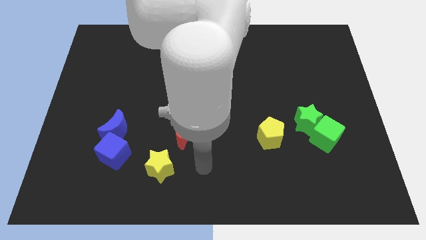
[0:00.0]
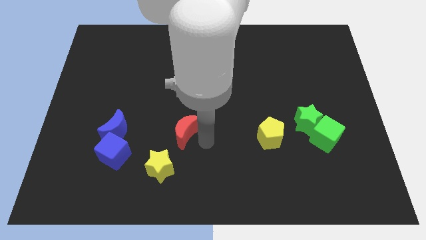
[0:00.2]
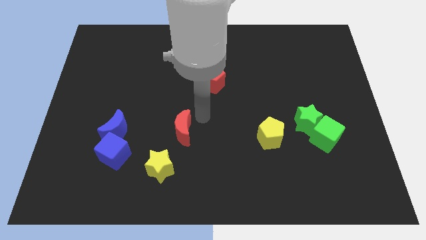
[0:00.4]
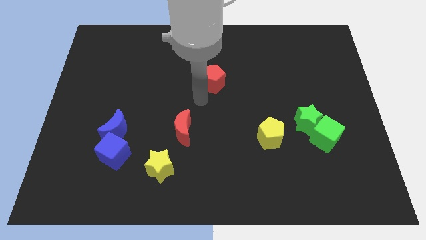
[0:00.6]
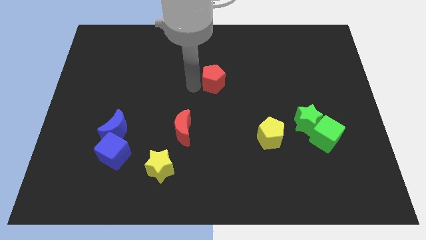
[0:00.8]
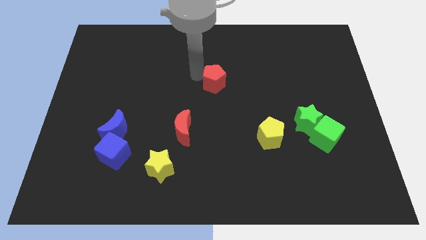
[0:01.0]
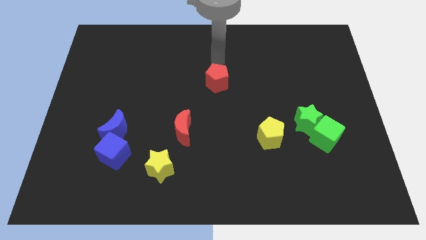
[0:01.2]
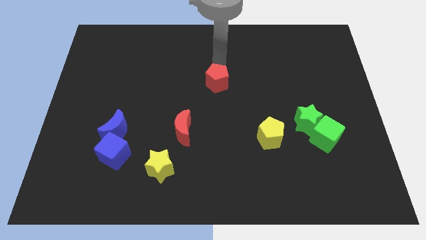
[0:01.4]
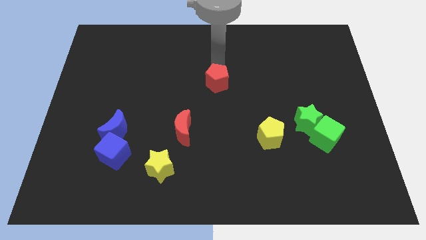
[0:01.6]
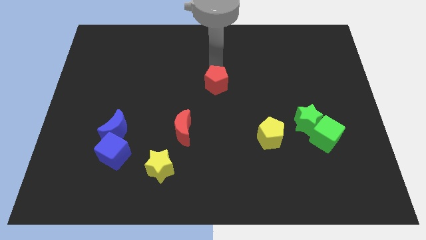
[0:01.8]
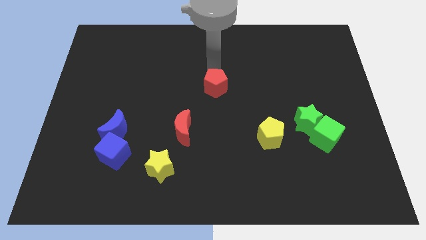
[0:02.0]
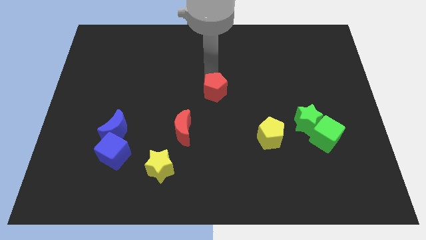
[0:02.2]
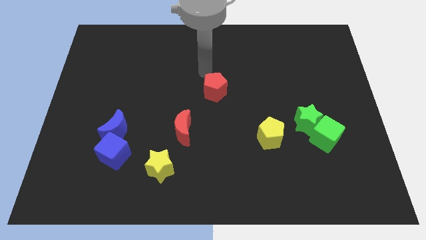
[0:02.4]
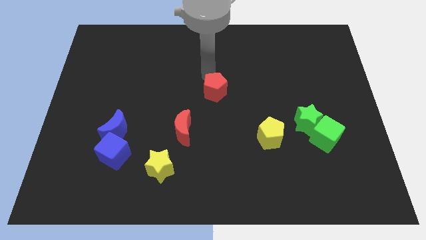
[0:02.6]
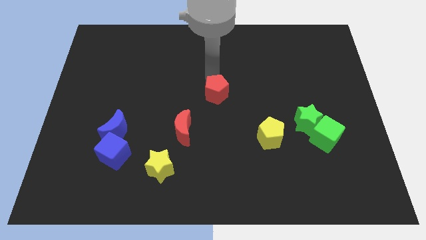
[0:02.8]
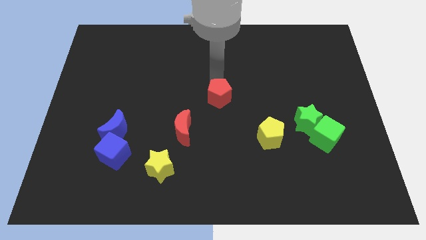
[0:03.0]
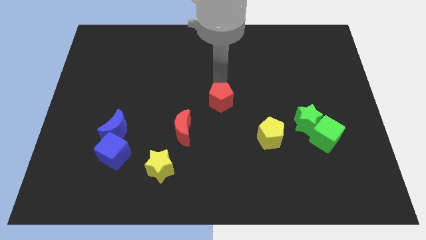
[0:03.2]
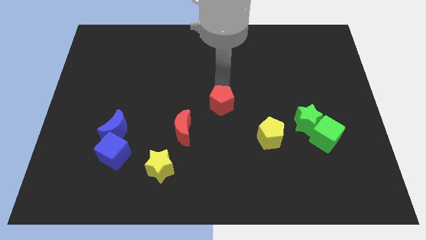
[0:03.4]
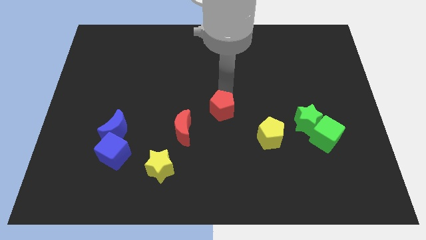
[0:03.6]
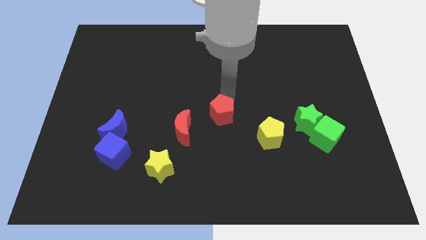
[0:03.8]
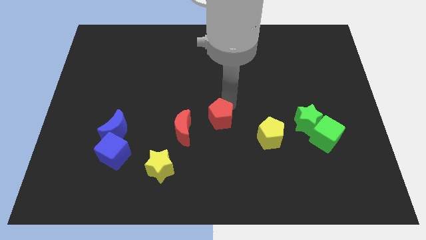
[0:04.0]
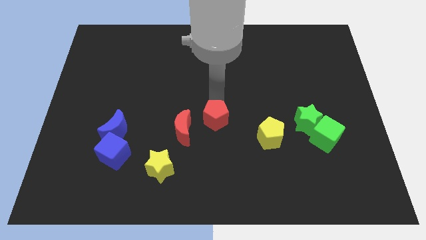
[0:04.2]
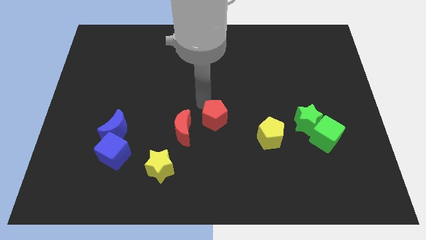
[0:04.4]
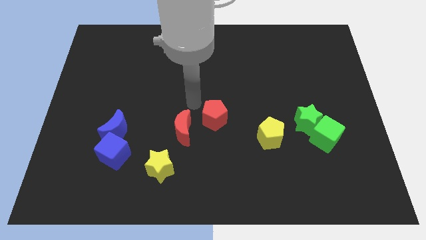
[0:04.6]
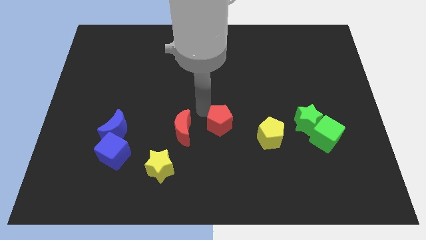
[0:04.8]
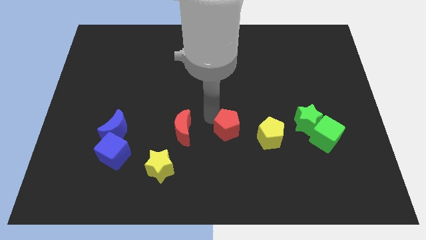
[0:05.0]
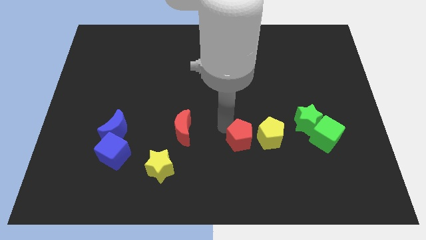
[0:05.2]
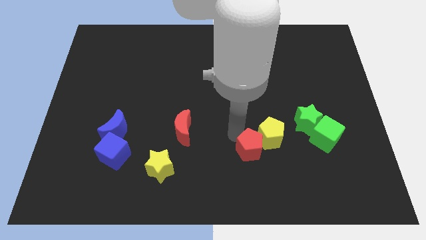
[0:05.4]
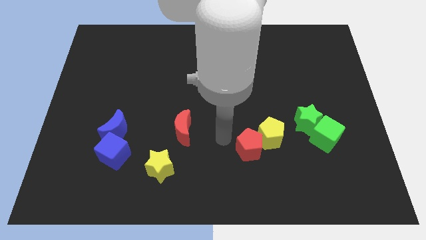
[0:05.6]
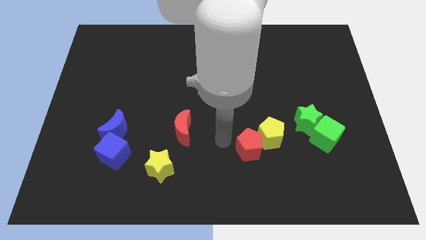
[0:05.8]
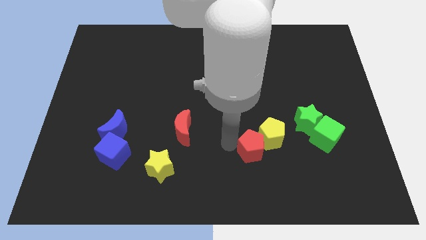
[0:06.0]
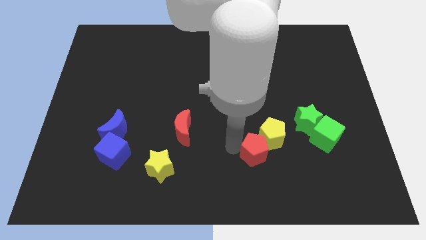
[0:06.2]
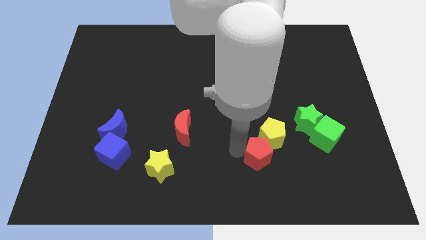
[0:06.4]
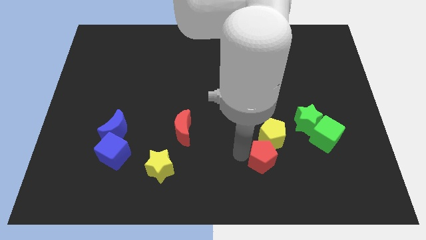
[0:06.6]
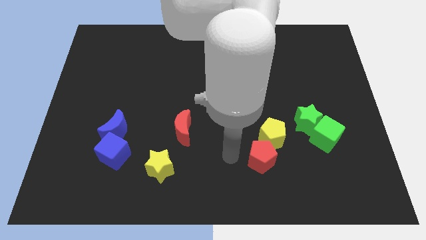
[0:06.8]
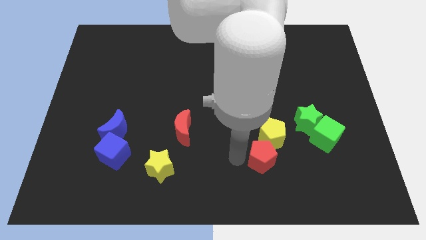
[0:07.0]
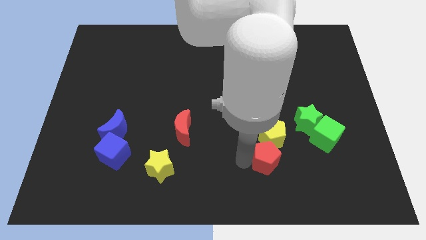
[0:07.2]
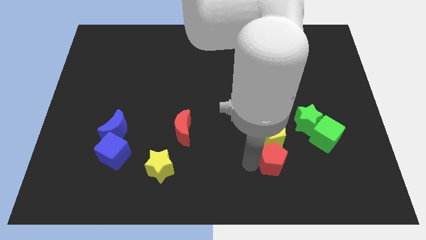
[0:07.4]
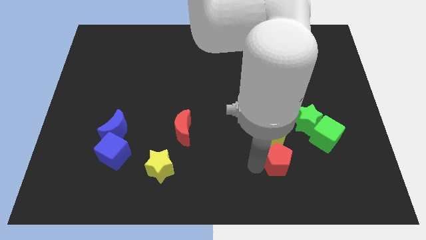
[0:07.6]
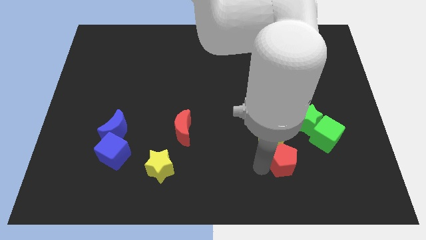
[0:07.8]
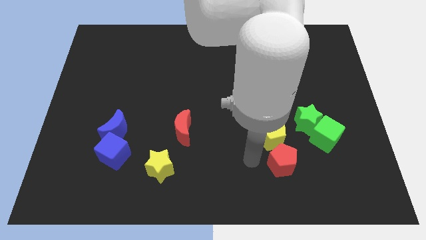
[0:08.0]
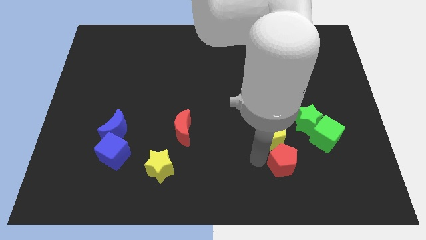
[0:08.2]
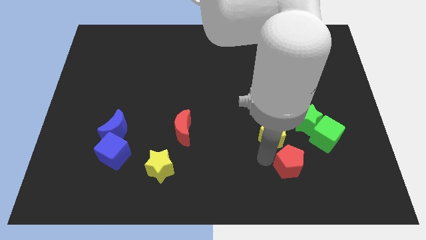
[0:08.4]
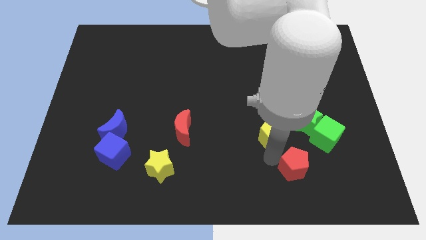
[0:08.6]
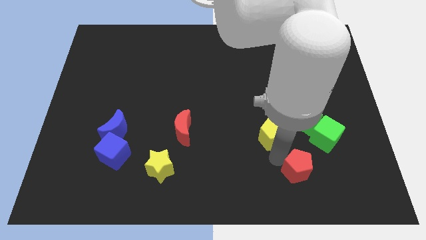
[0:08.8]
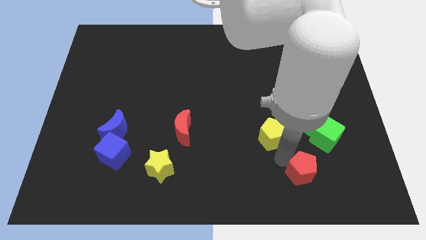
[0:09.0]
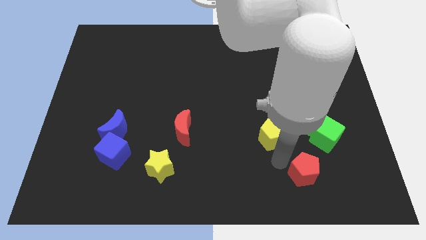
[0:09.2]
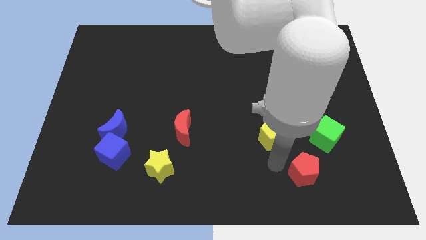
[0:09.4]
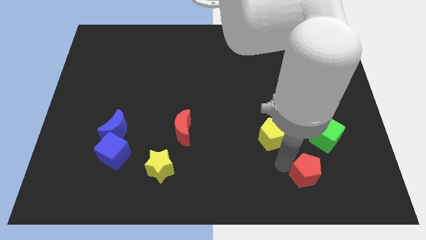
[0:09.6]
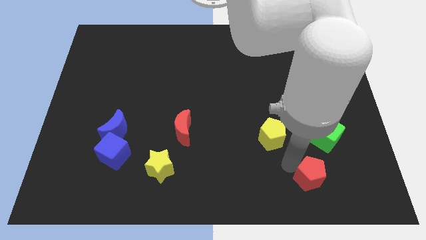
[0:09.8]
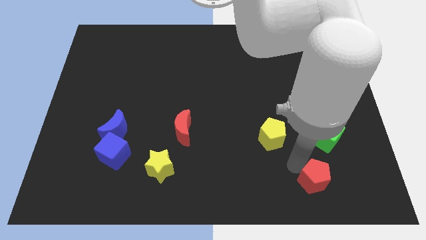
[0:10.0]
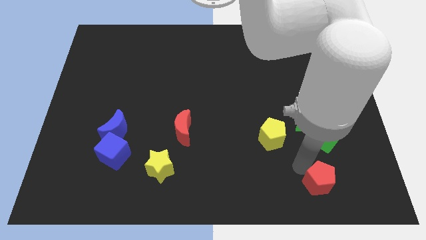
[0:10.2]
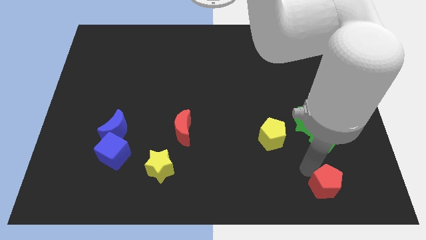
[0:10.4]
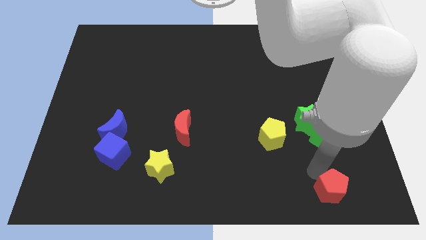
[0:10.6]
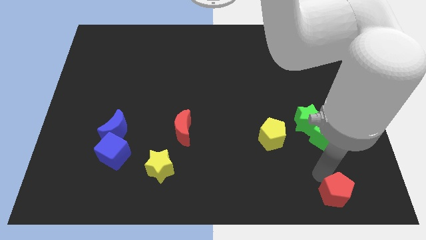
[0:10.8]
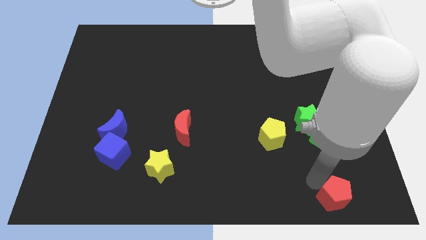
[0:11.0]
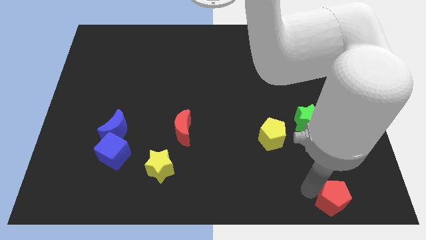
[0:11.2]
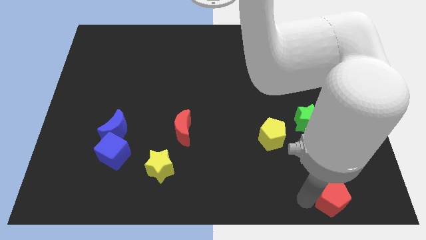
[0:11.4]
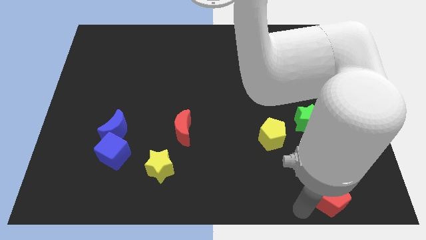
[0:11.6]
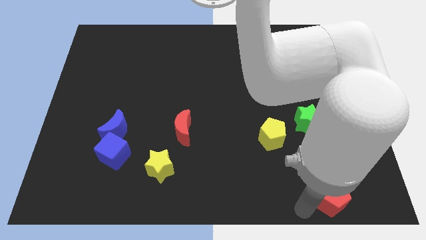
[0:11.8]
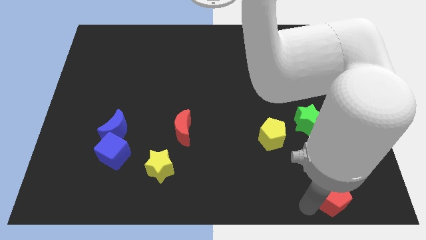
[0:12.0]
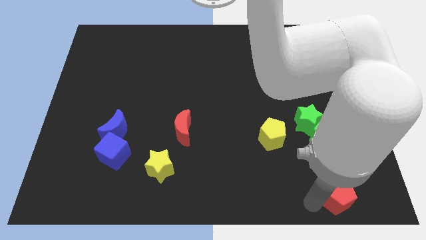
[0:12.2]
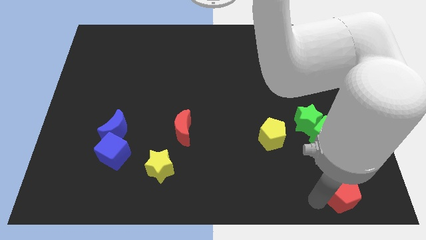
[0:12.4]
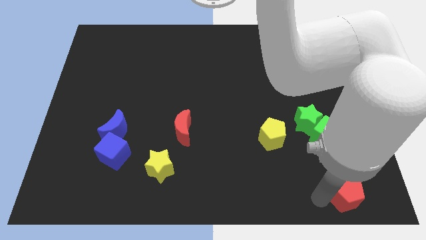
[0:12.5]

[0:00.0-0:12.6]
slide the red pentagon to the bottom right corner
